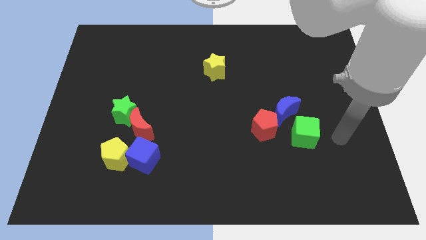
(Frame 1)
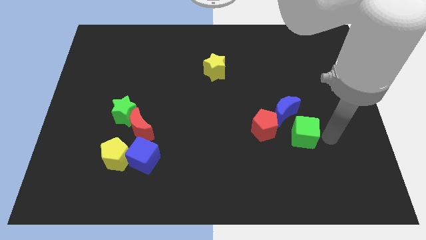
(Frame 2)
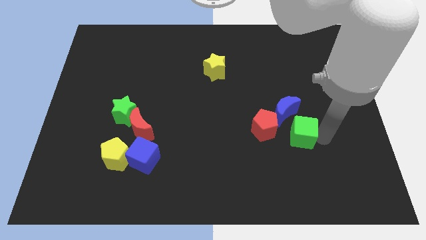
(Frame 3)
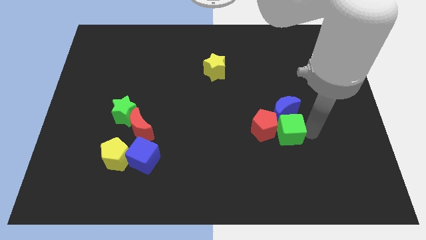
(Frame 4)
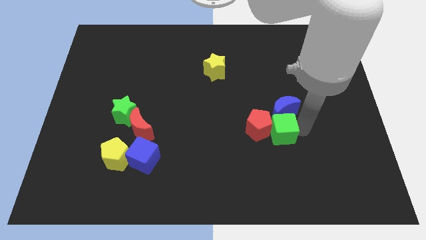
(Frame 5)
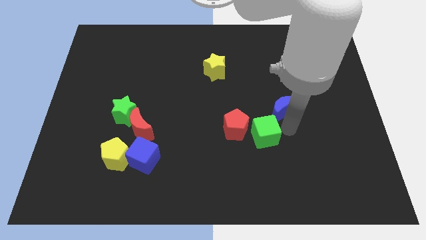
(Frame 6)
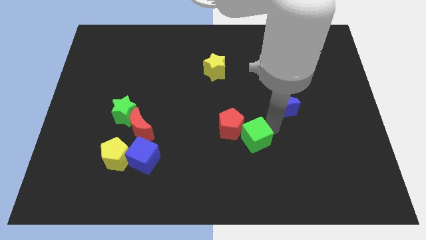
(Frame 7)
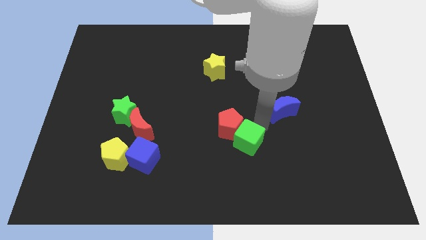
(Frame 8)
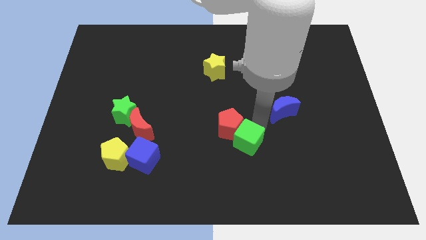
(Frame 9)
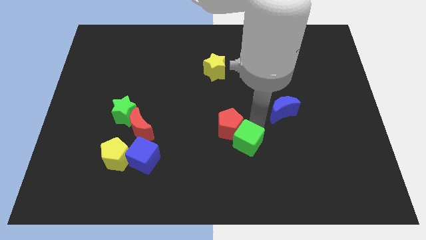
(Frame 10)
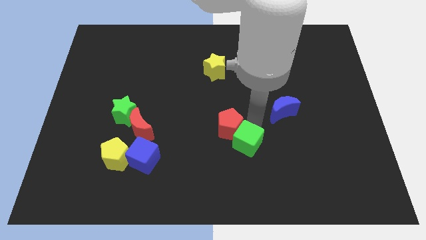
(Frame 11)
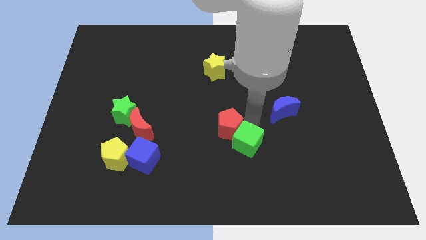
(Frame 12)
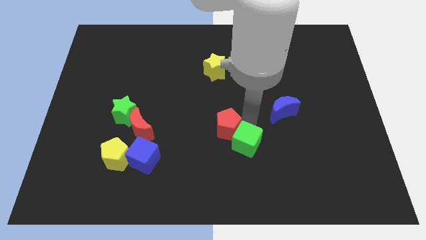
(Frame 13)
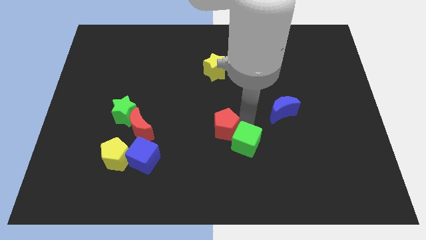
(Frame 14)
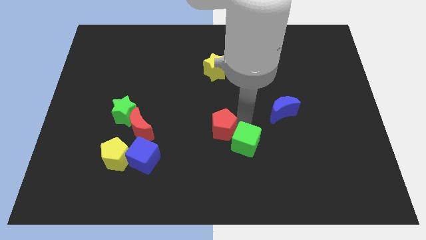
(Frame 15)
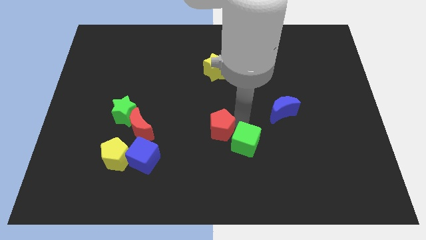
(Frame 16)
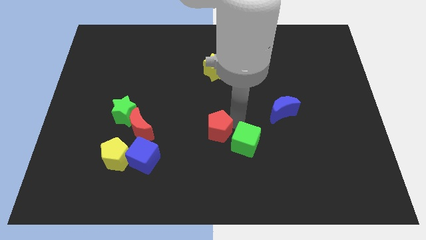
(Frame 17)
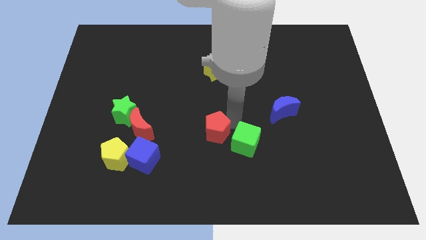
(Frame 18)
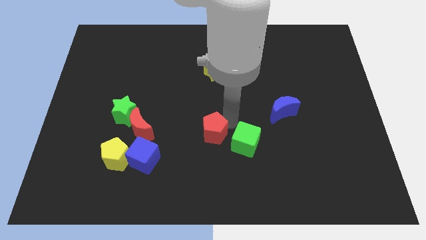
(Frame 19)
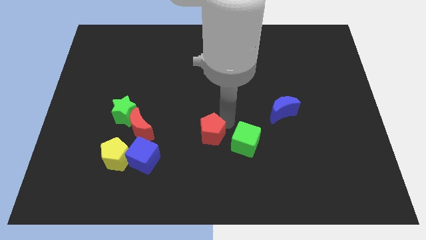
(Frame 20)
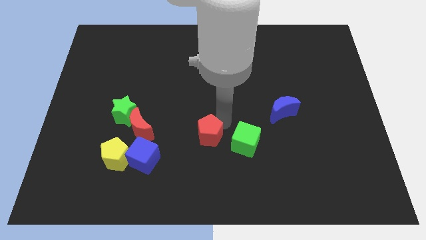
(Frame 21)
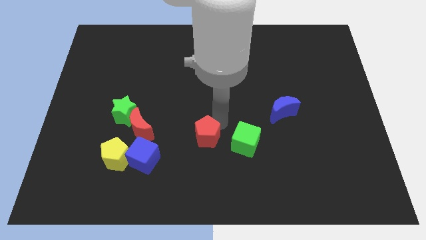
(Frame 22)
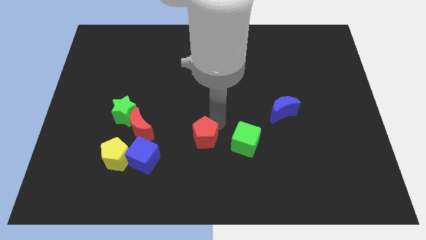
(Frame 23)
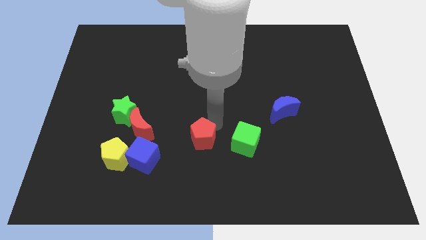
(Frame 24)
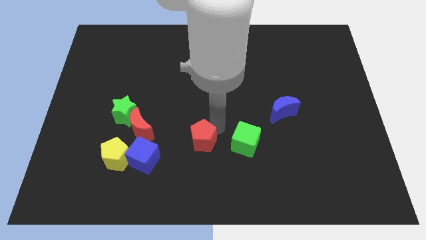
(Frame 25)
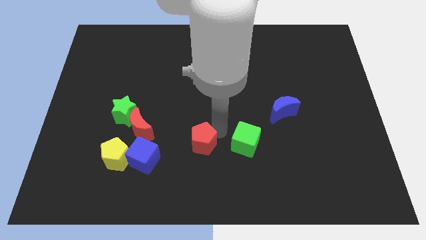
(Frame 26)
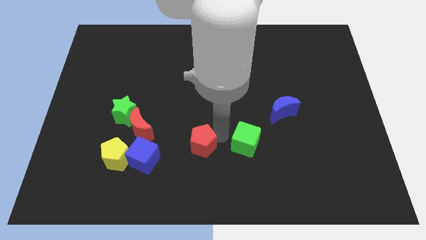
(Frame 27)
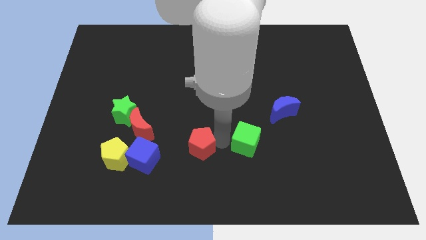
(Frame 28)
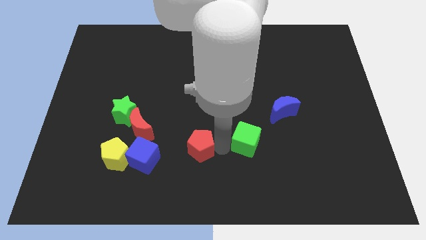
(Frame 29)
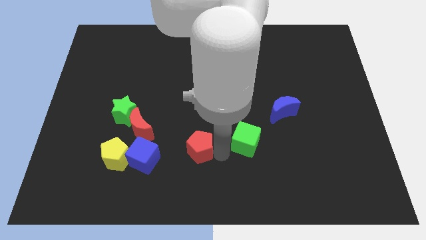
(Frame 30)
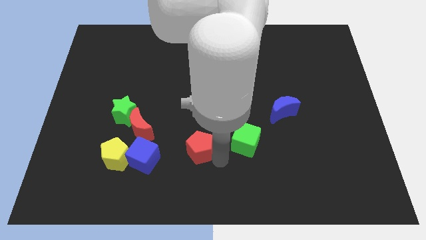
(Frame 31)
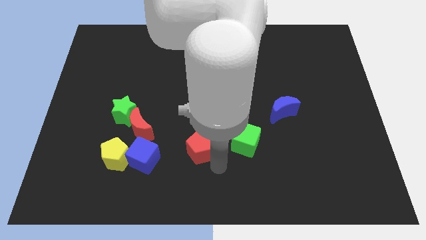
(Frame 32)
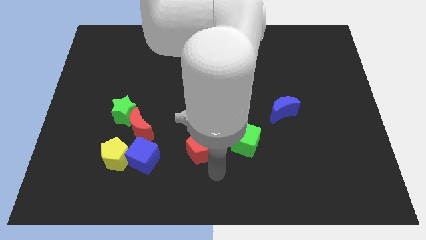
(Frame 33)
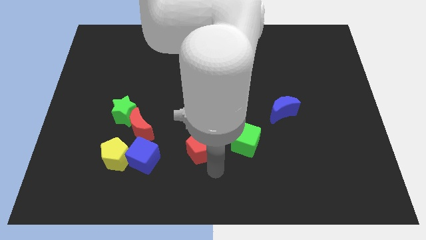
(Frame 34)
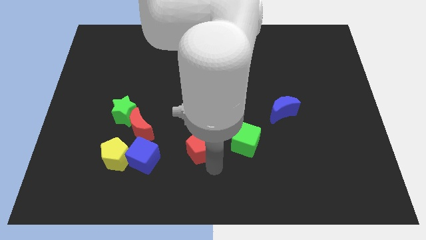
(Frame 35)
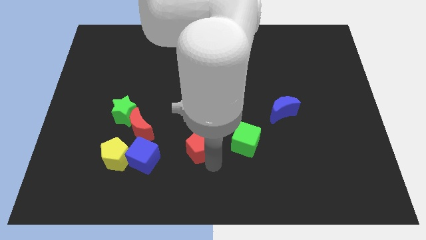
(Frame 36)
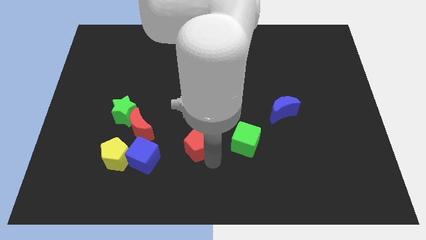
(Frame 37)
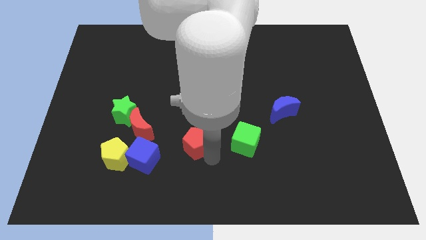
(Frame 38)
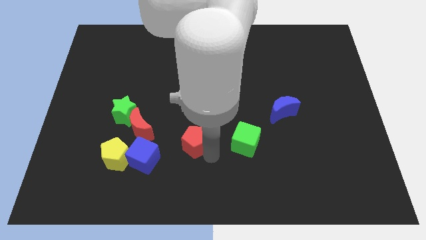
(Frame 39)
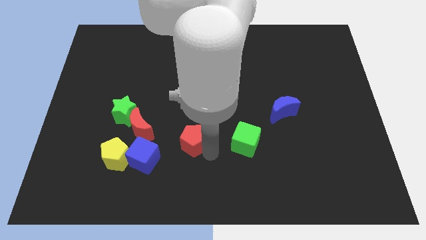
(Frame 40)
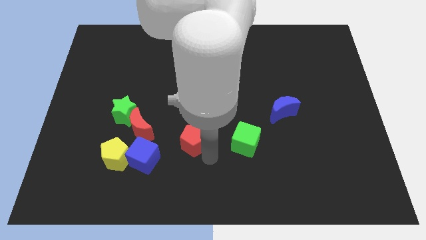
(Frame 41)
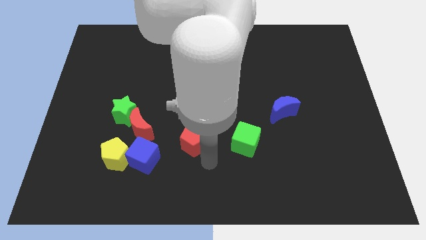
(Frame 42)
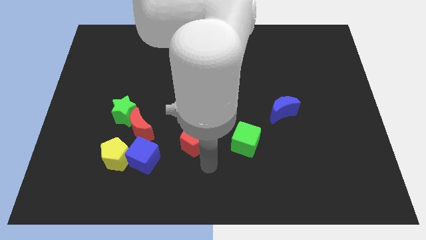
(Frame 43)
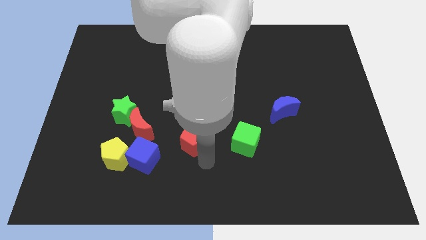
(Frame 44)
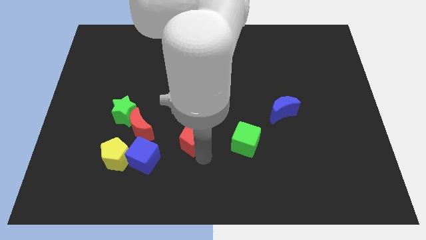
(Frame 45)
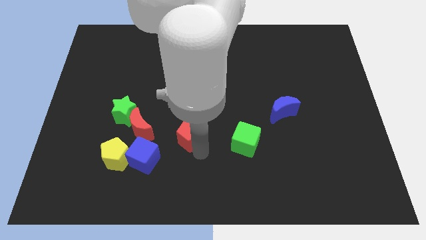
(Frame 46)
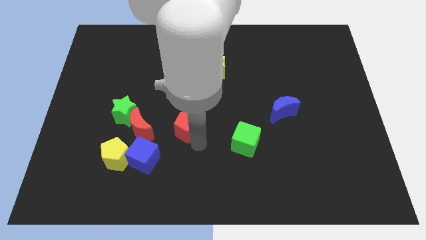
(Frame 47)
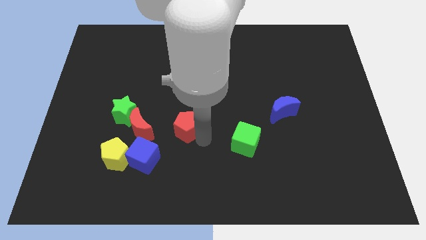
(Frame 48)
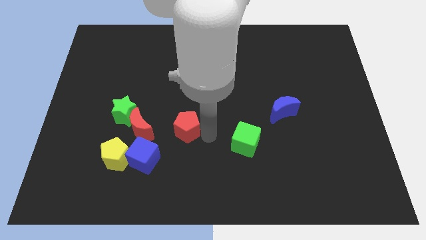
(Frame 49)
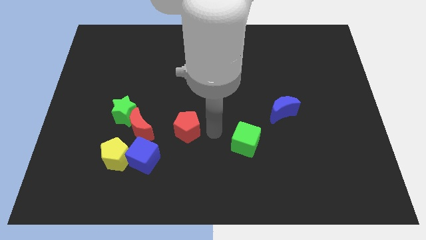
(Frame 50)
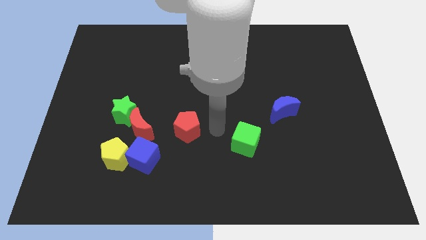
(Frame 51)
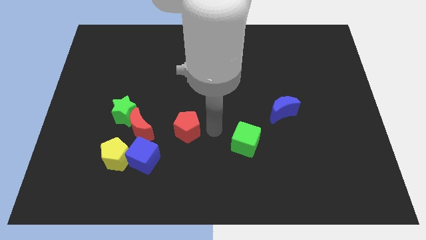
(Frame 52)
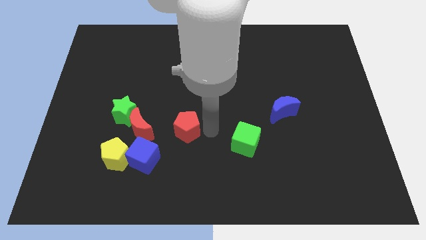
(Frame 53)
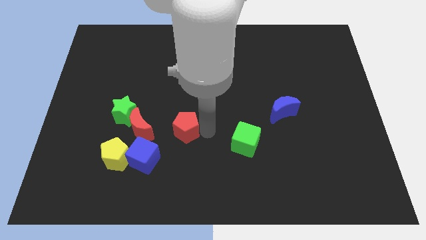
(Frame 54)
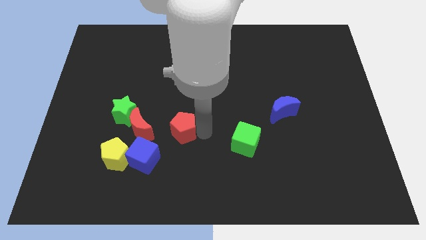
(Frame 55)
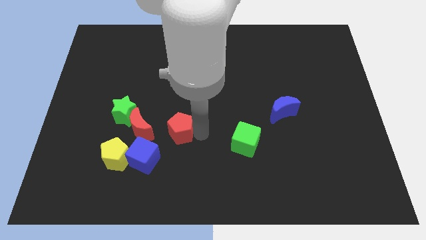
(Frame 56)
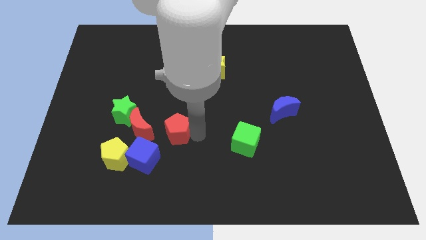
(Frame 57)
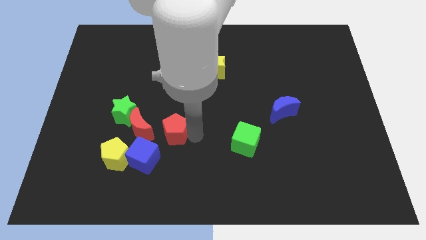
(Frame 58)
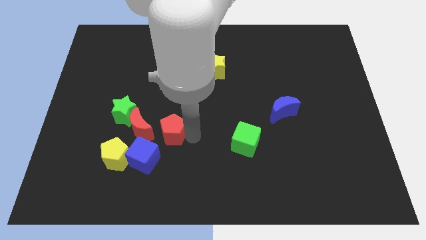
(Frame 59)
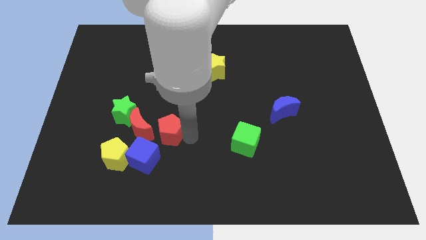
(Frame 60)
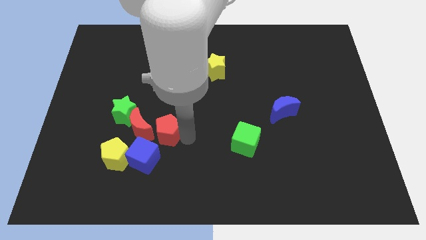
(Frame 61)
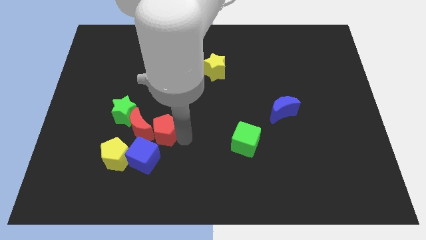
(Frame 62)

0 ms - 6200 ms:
slide the red pentagon next to the red moon
